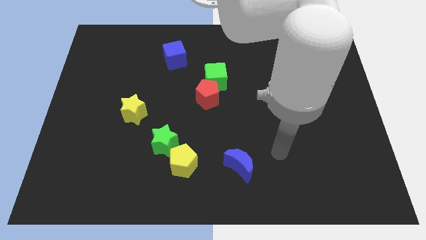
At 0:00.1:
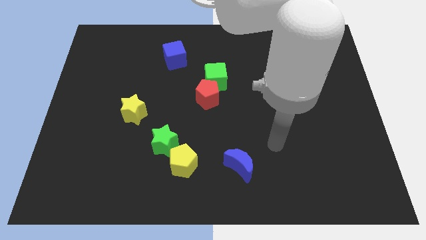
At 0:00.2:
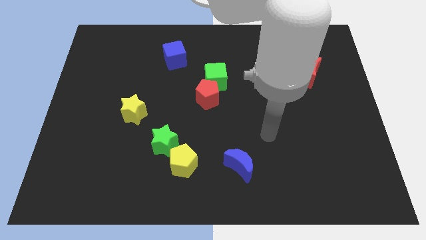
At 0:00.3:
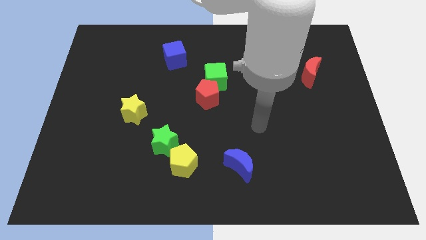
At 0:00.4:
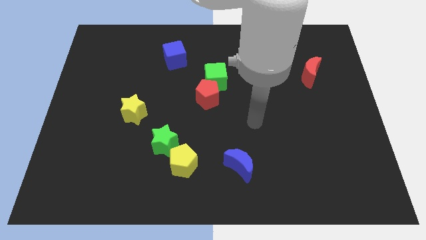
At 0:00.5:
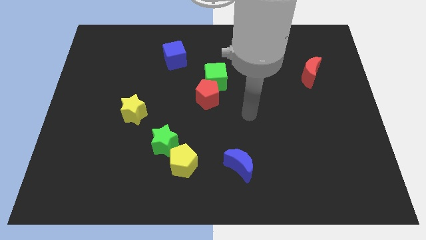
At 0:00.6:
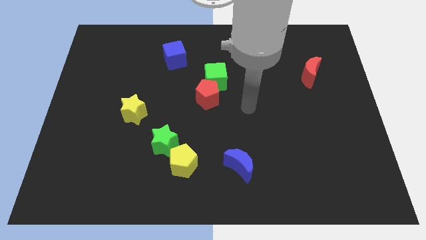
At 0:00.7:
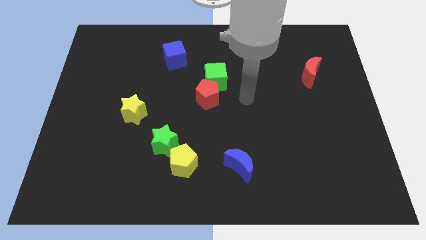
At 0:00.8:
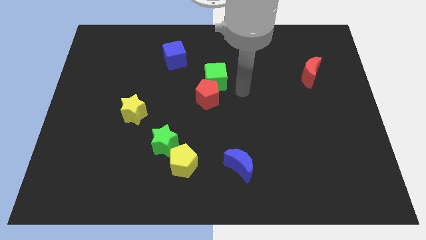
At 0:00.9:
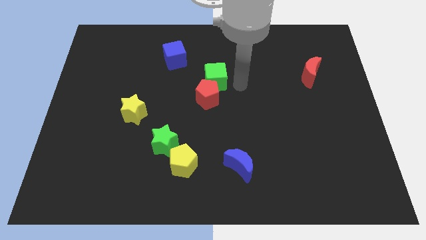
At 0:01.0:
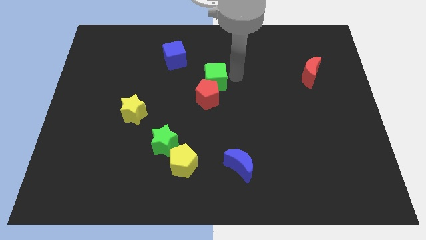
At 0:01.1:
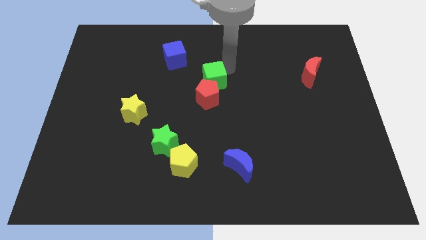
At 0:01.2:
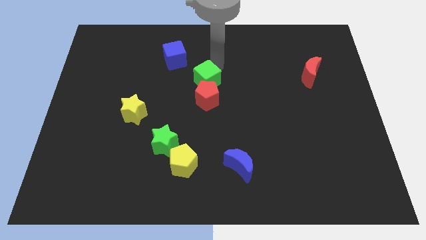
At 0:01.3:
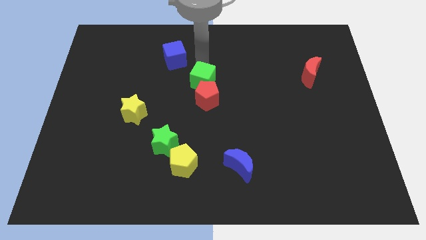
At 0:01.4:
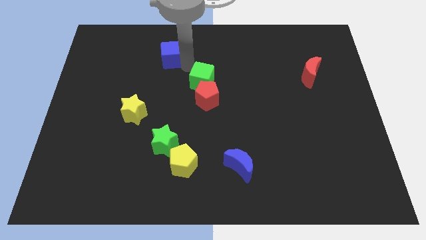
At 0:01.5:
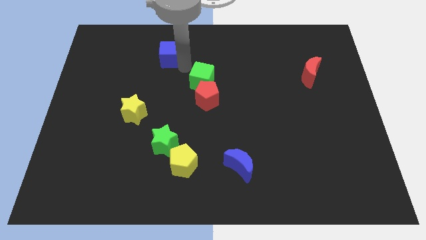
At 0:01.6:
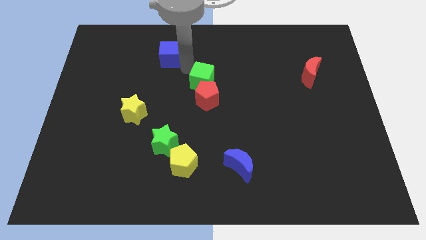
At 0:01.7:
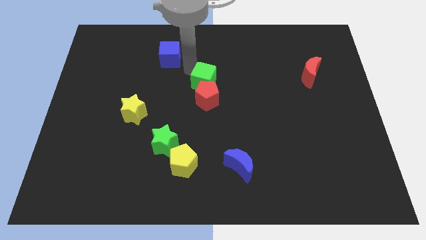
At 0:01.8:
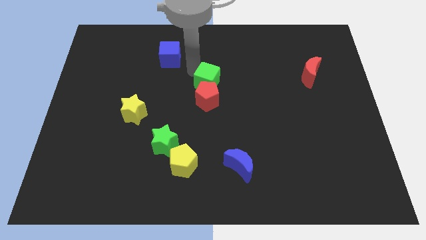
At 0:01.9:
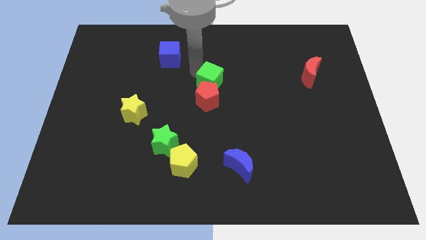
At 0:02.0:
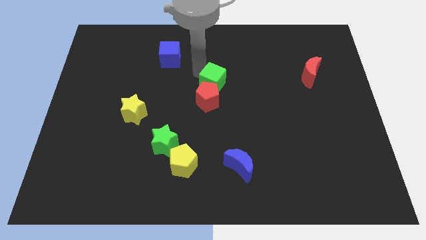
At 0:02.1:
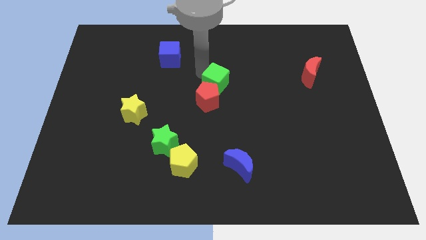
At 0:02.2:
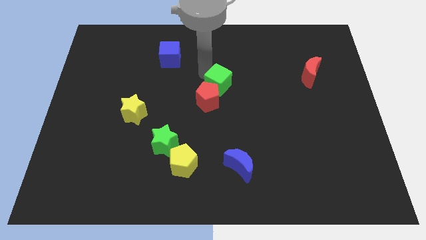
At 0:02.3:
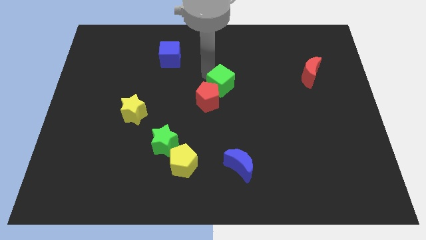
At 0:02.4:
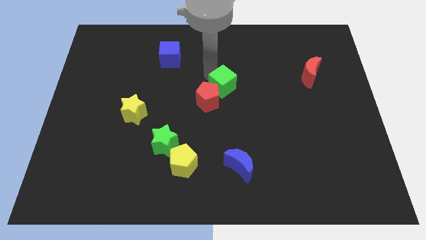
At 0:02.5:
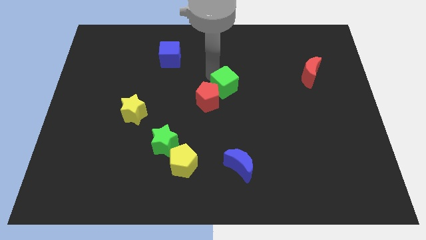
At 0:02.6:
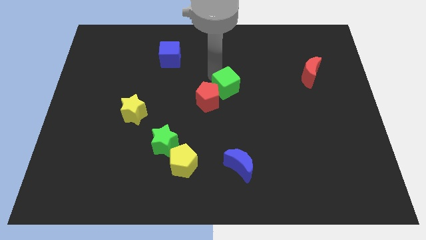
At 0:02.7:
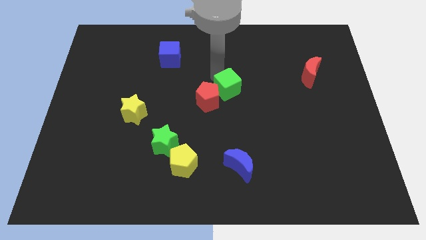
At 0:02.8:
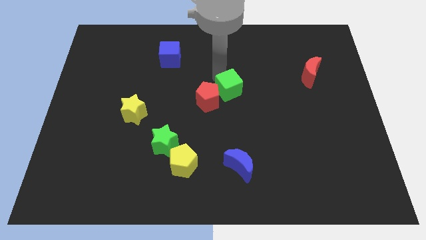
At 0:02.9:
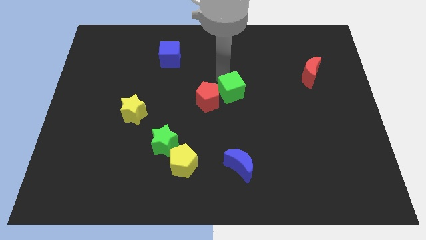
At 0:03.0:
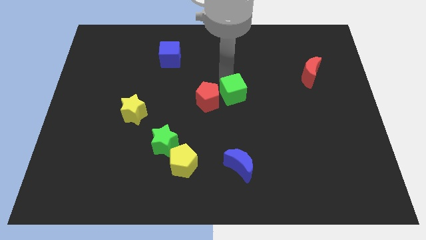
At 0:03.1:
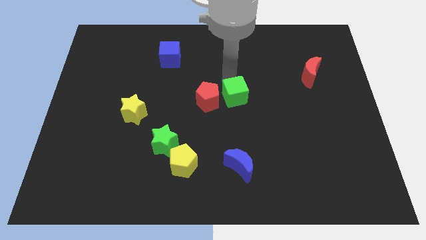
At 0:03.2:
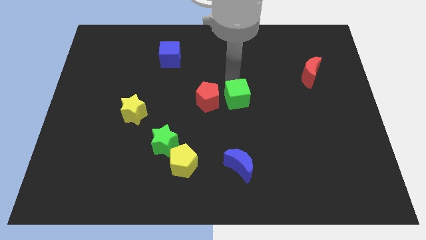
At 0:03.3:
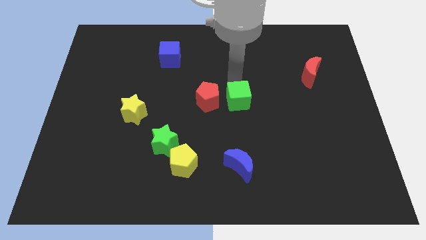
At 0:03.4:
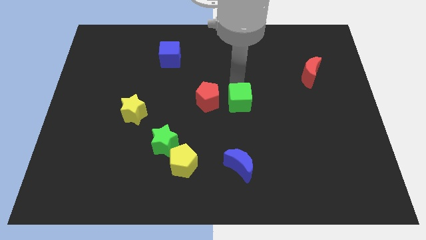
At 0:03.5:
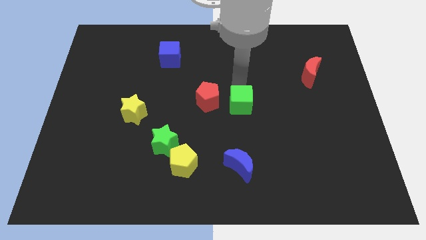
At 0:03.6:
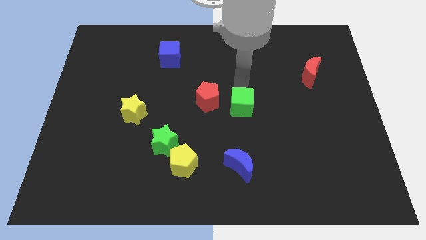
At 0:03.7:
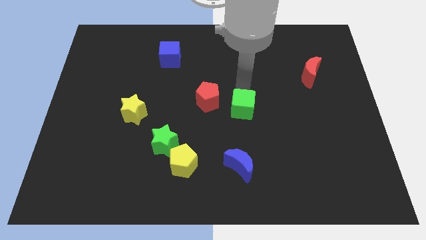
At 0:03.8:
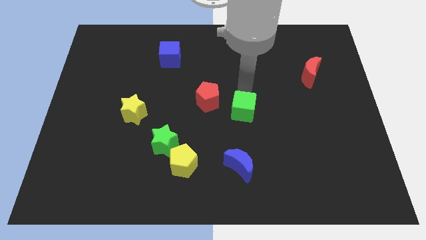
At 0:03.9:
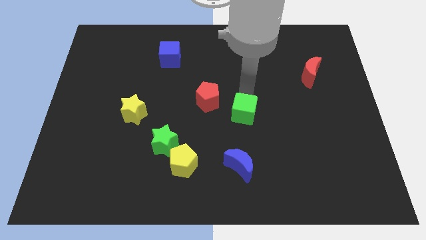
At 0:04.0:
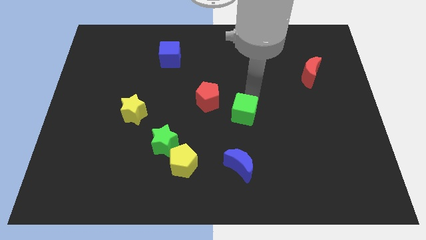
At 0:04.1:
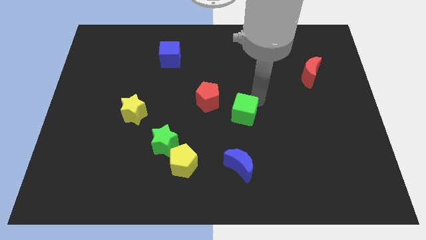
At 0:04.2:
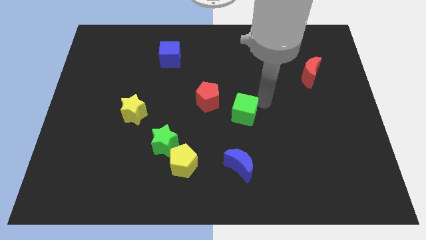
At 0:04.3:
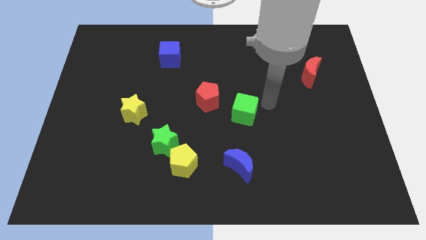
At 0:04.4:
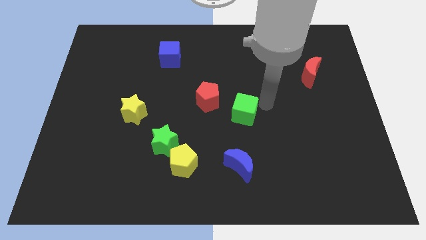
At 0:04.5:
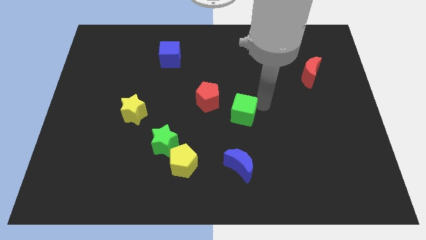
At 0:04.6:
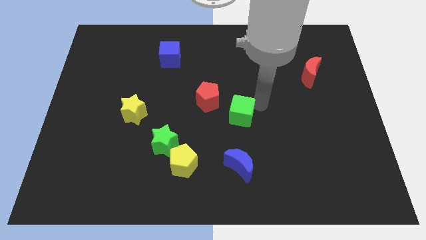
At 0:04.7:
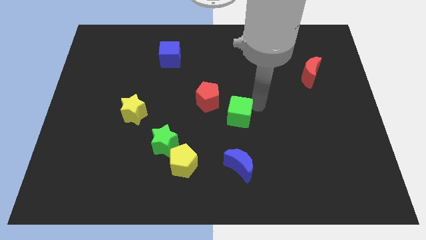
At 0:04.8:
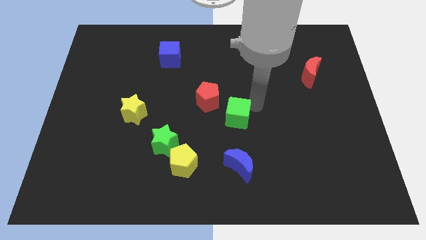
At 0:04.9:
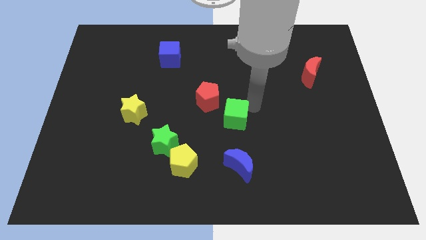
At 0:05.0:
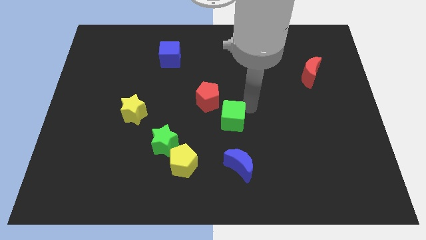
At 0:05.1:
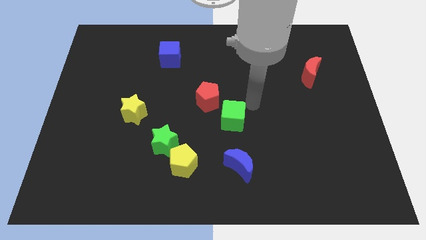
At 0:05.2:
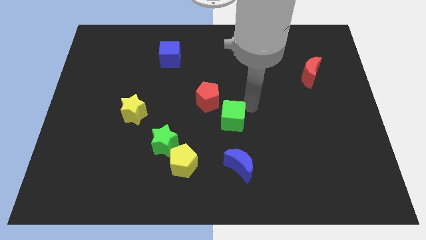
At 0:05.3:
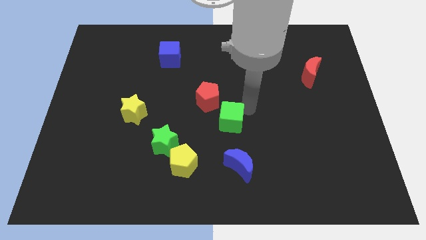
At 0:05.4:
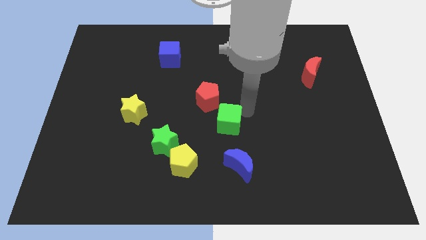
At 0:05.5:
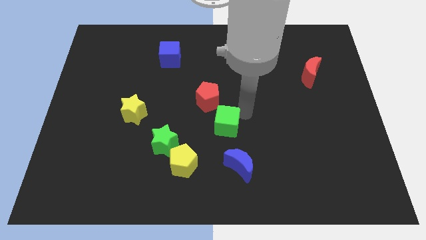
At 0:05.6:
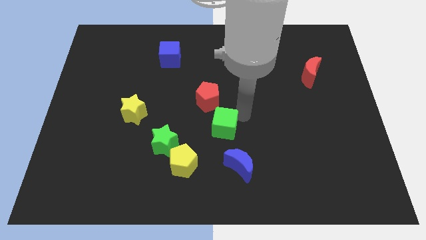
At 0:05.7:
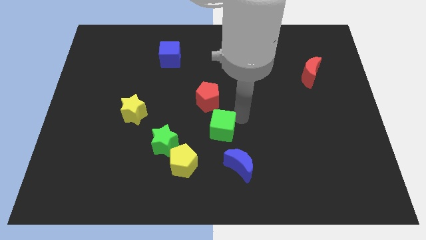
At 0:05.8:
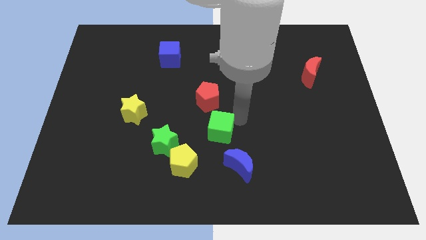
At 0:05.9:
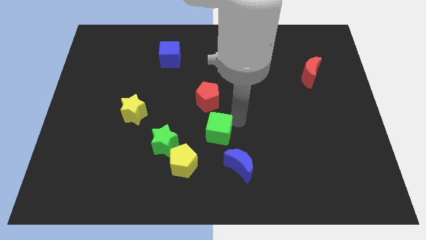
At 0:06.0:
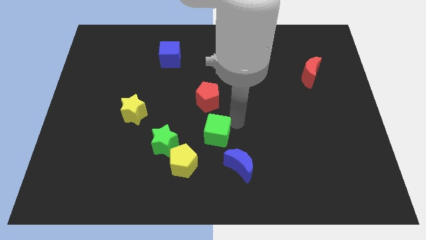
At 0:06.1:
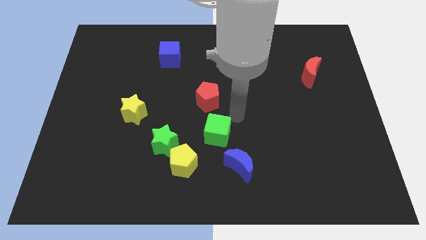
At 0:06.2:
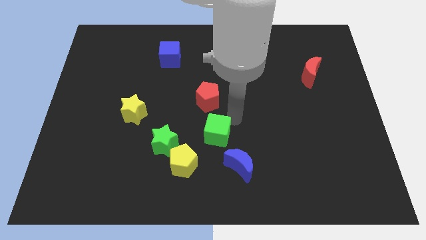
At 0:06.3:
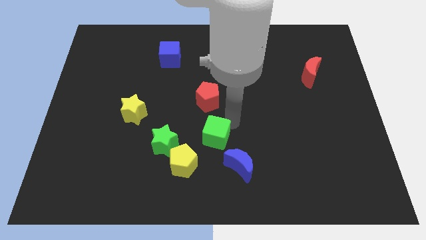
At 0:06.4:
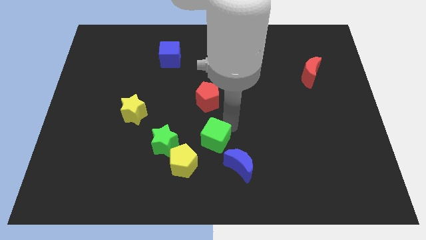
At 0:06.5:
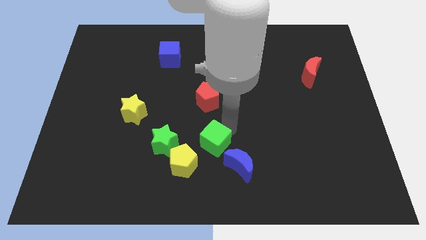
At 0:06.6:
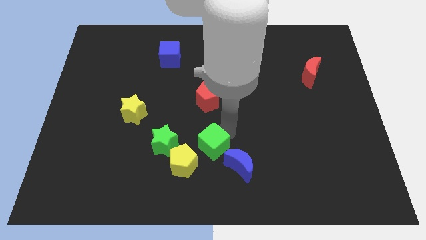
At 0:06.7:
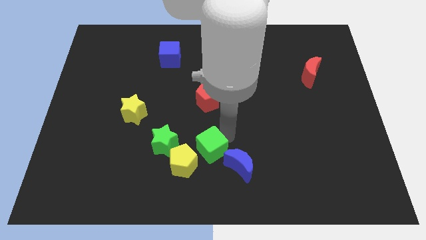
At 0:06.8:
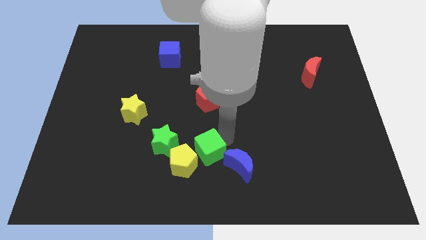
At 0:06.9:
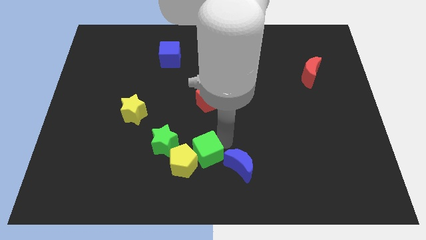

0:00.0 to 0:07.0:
put the green cube close to the yellow pentagon
